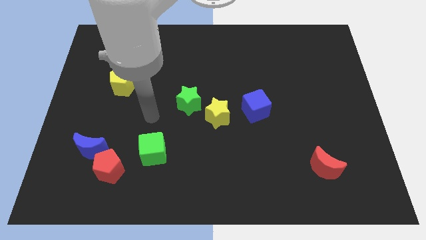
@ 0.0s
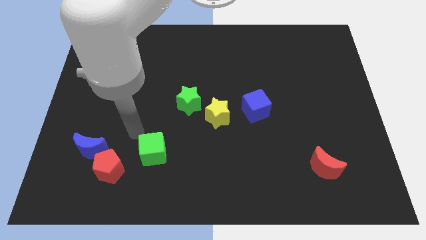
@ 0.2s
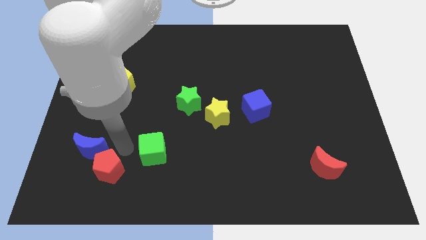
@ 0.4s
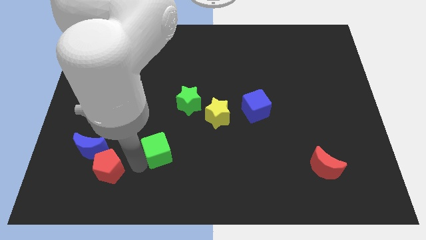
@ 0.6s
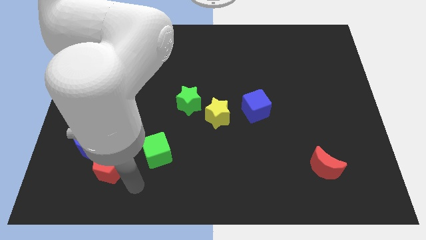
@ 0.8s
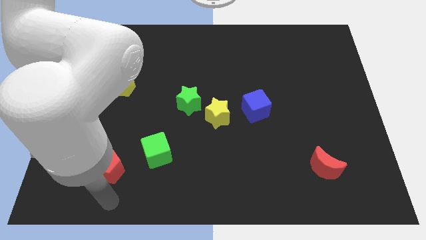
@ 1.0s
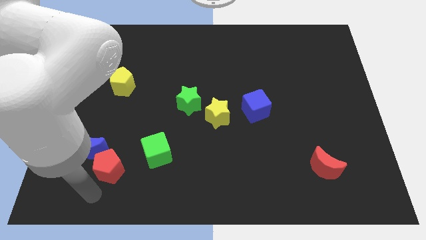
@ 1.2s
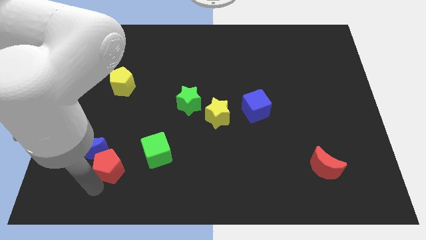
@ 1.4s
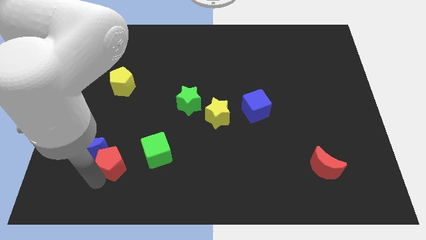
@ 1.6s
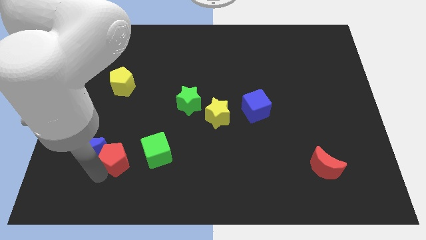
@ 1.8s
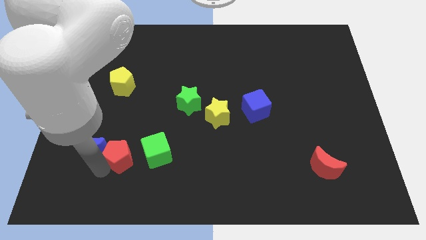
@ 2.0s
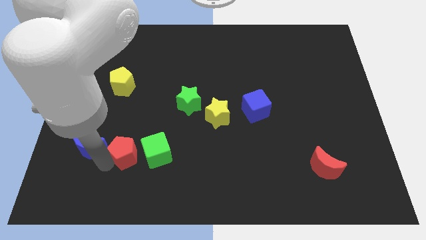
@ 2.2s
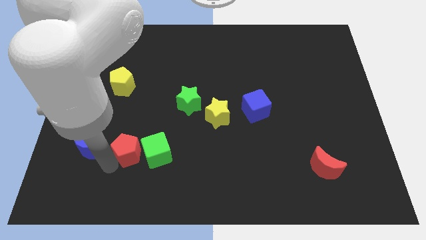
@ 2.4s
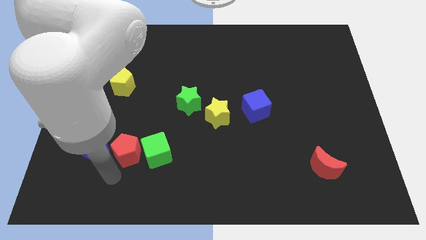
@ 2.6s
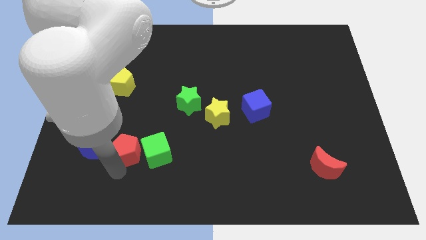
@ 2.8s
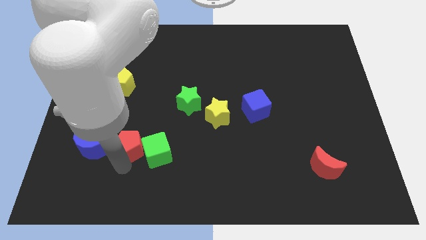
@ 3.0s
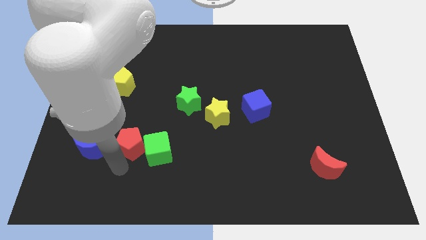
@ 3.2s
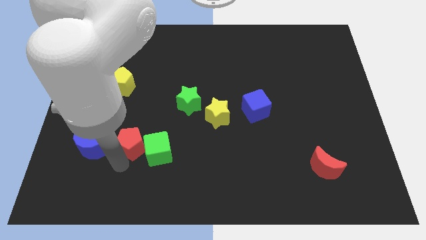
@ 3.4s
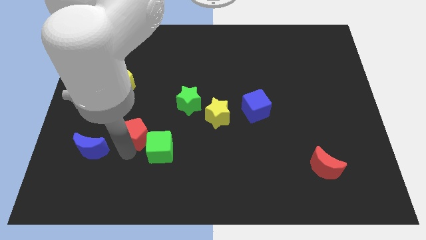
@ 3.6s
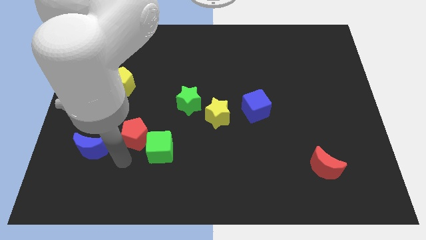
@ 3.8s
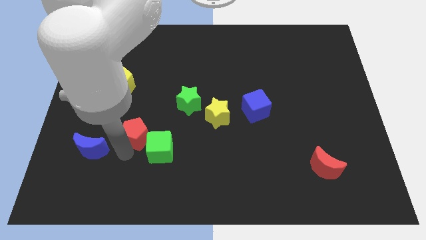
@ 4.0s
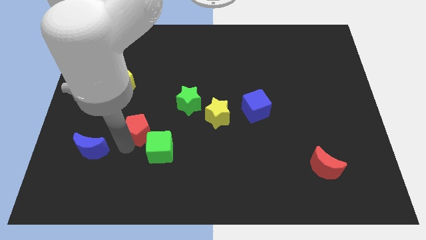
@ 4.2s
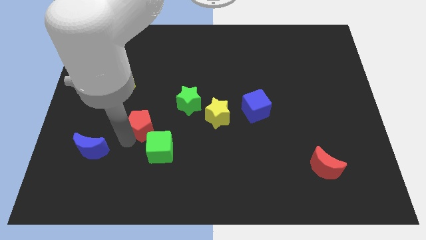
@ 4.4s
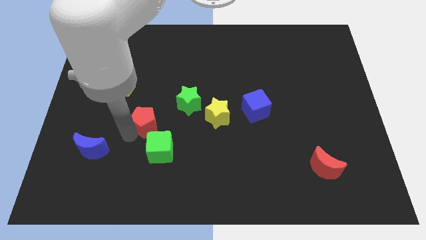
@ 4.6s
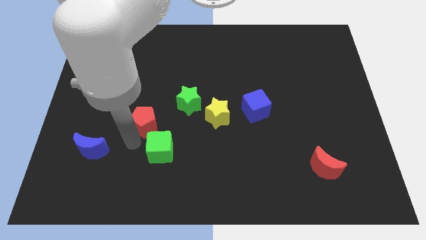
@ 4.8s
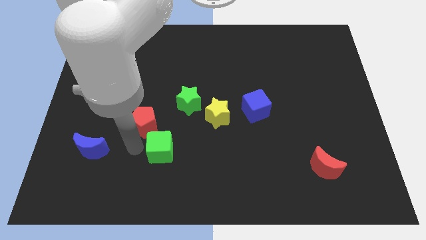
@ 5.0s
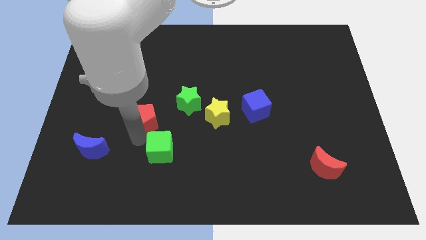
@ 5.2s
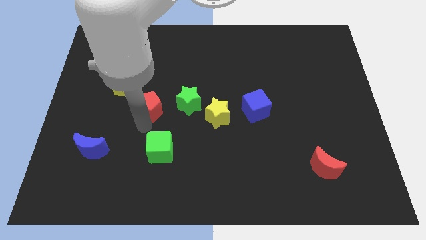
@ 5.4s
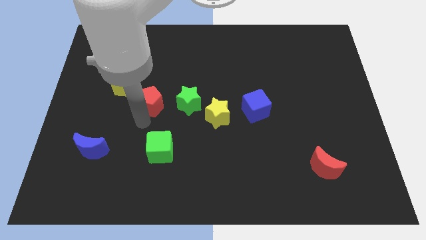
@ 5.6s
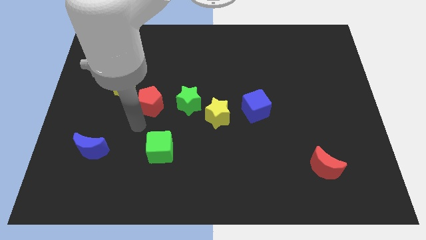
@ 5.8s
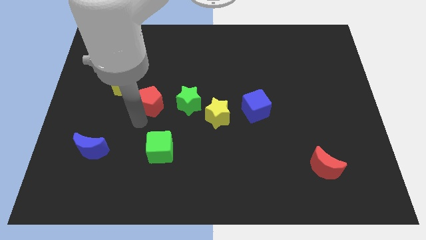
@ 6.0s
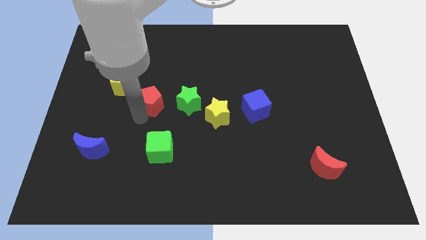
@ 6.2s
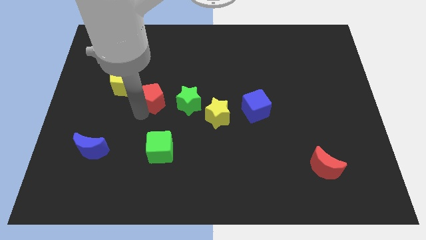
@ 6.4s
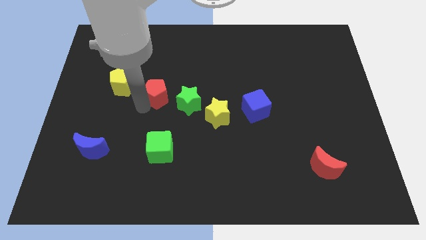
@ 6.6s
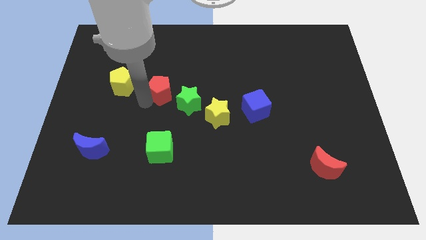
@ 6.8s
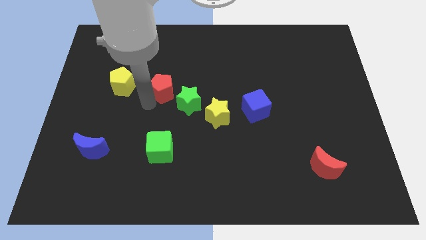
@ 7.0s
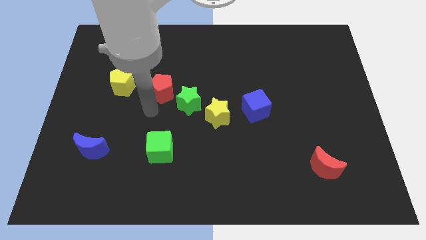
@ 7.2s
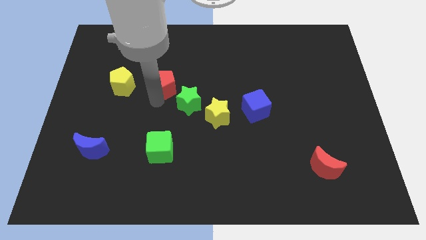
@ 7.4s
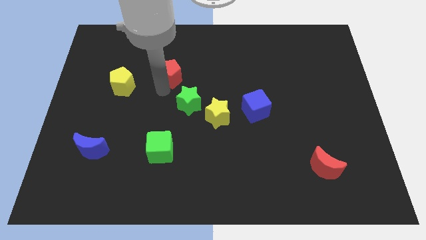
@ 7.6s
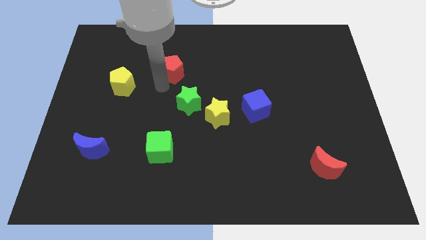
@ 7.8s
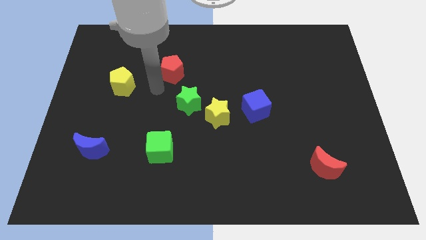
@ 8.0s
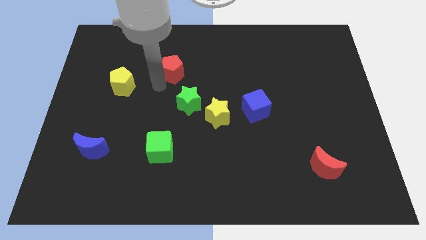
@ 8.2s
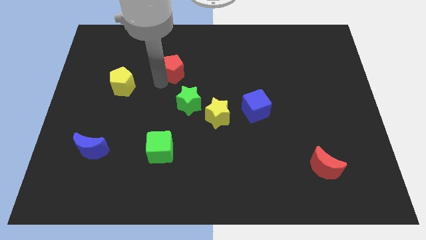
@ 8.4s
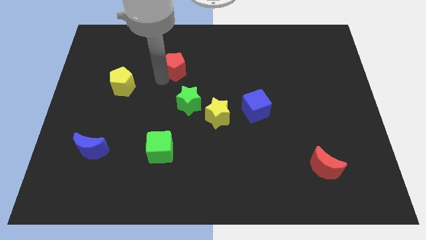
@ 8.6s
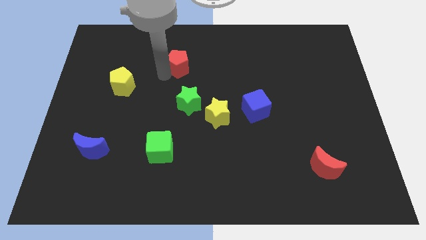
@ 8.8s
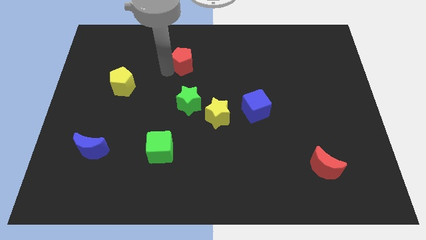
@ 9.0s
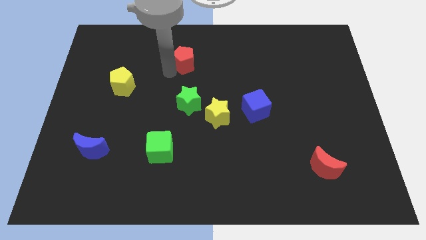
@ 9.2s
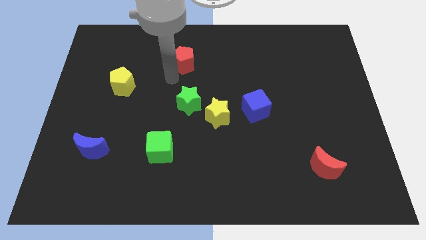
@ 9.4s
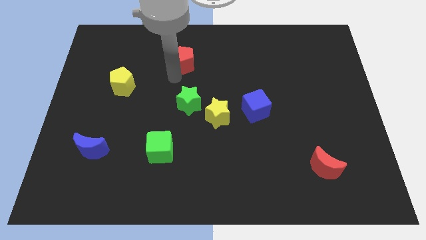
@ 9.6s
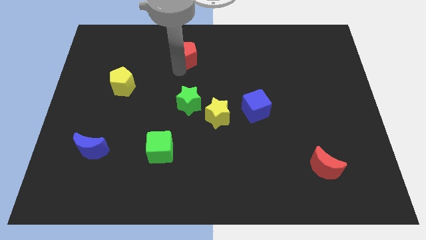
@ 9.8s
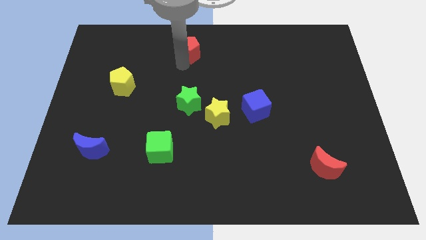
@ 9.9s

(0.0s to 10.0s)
push the red pentagon to the top side

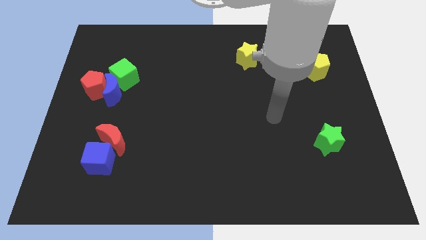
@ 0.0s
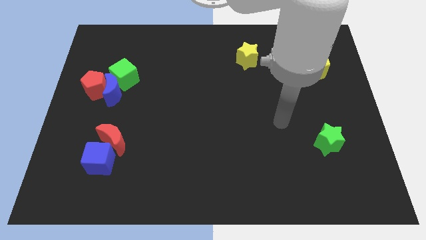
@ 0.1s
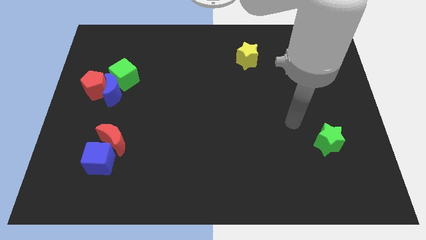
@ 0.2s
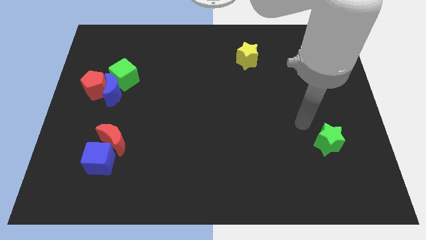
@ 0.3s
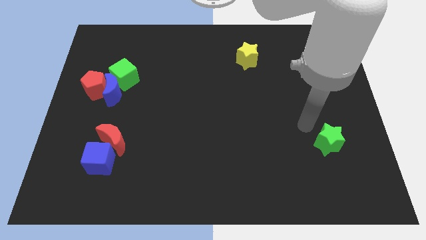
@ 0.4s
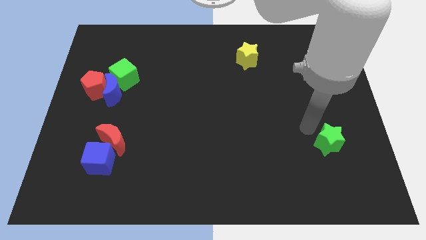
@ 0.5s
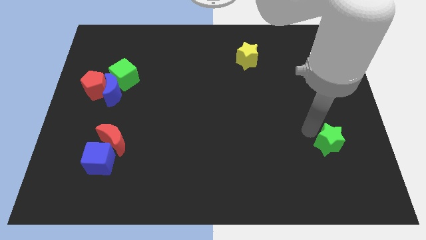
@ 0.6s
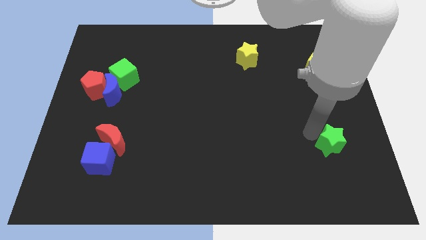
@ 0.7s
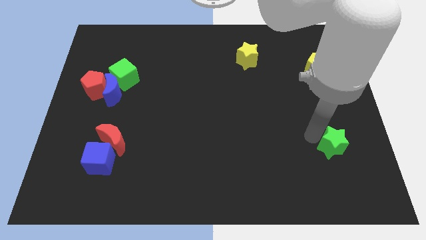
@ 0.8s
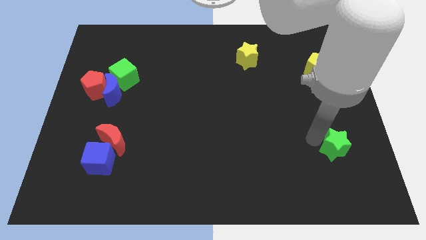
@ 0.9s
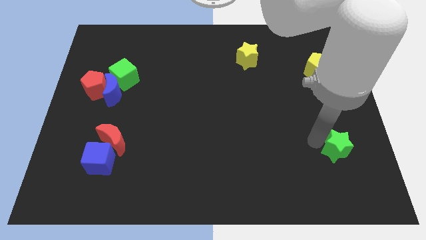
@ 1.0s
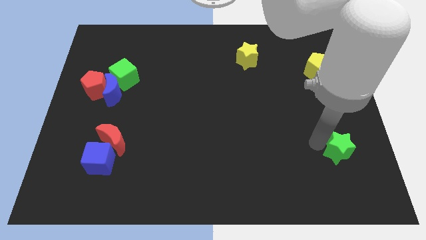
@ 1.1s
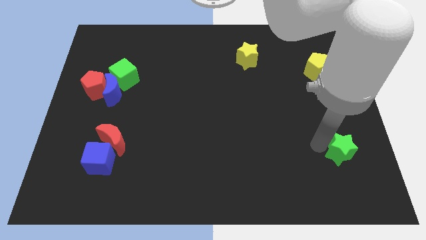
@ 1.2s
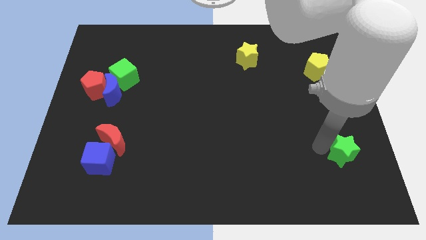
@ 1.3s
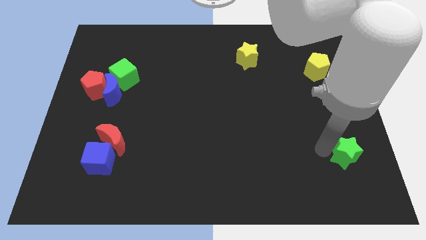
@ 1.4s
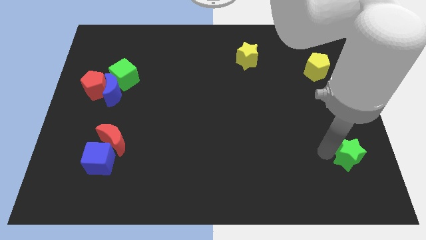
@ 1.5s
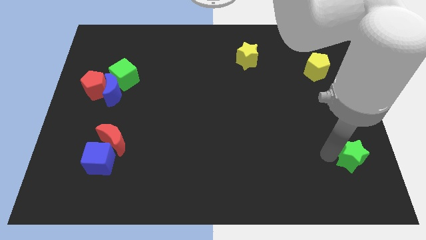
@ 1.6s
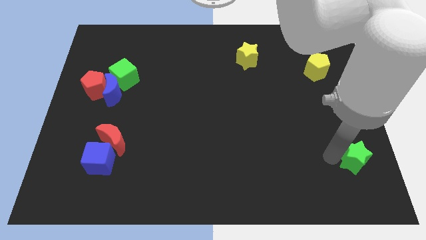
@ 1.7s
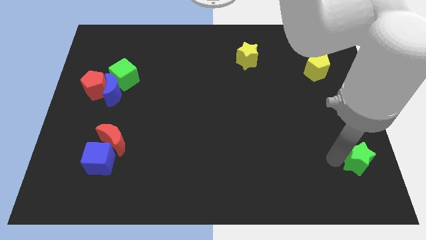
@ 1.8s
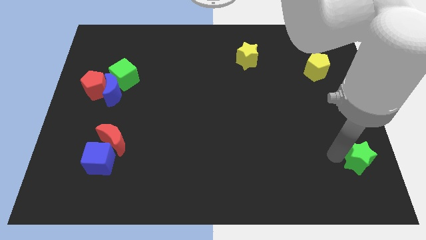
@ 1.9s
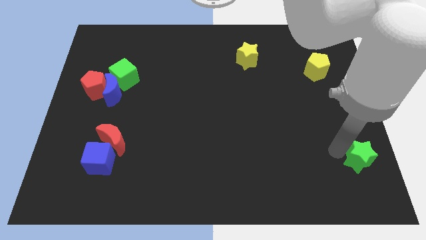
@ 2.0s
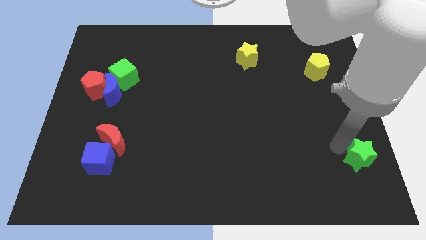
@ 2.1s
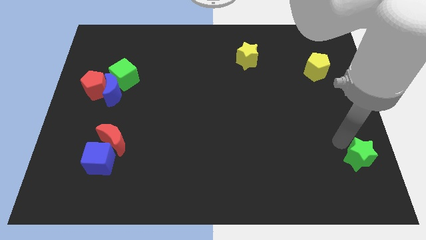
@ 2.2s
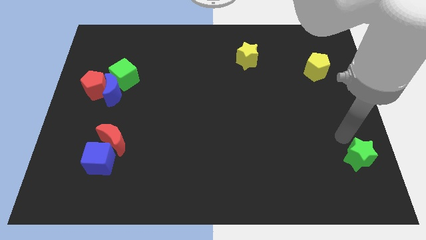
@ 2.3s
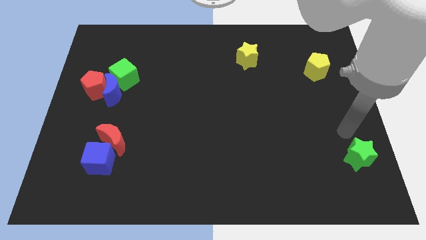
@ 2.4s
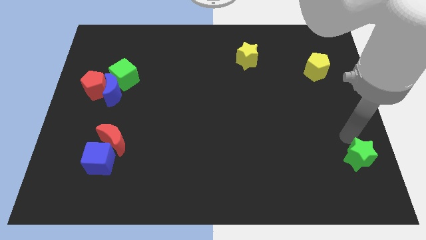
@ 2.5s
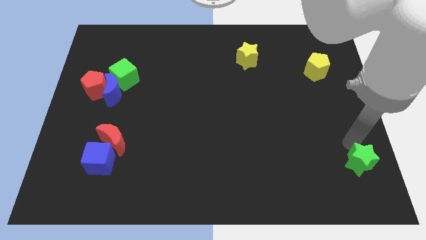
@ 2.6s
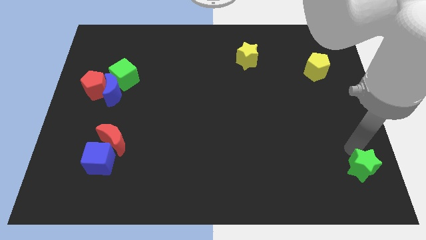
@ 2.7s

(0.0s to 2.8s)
push the green star to the bottom right corner

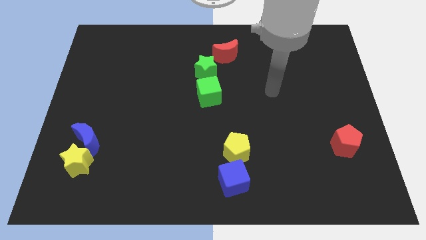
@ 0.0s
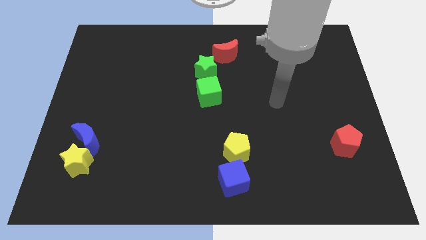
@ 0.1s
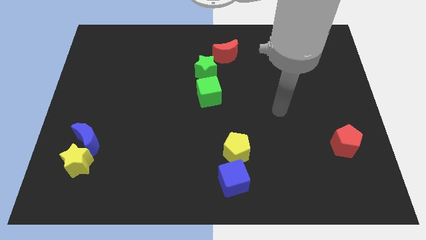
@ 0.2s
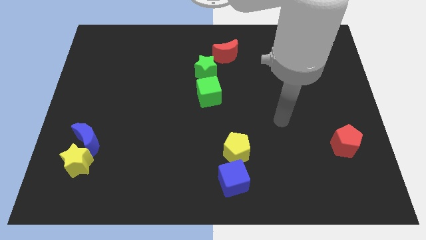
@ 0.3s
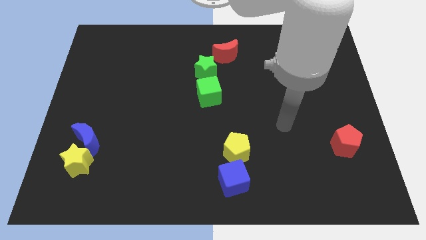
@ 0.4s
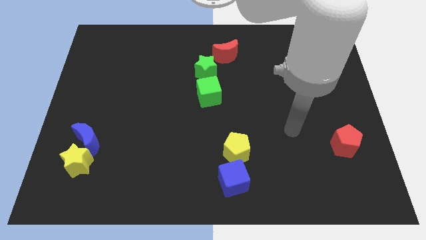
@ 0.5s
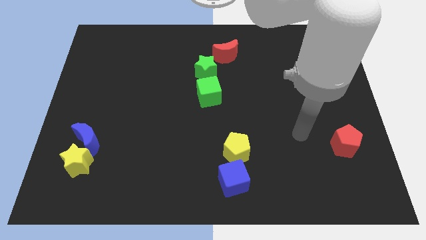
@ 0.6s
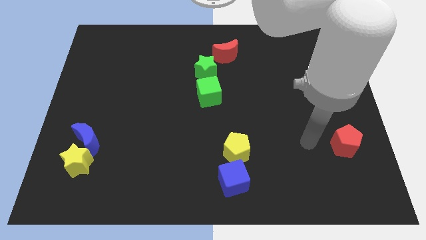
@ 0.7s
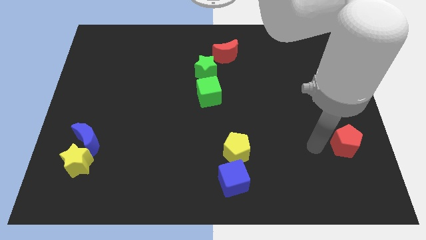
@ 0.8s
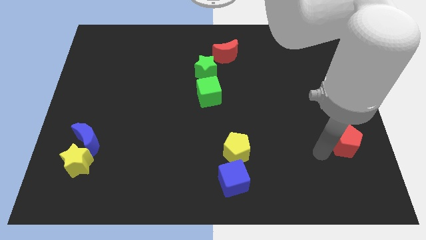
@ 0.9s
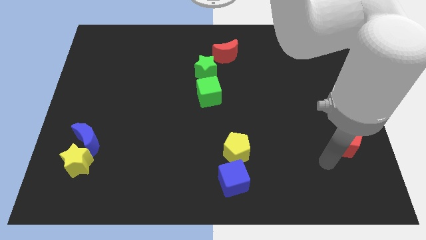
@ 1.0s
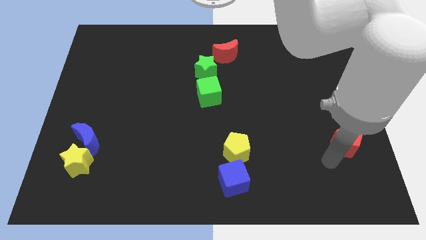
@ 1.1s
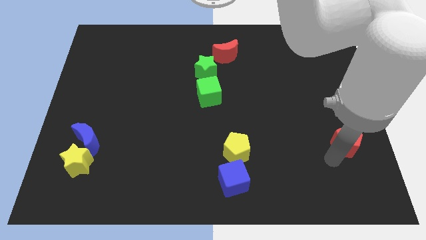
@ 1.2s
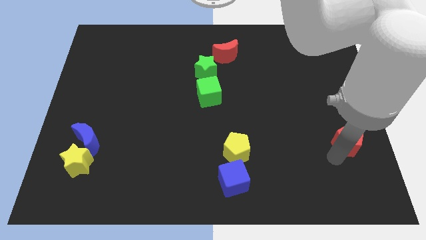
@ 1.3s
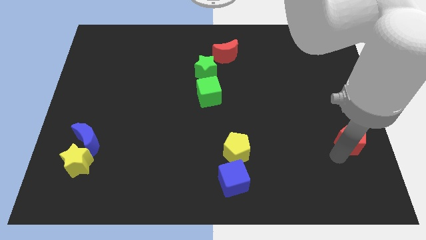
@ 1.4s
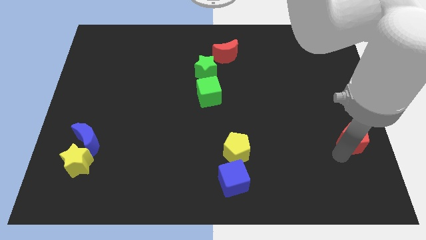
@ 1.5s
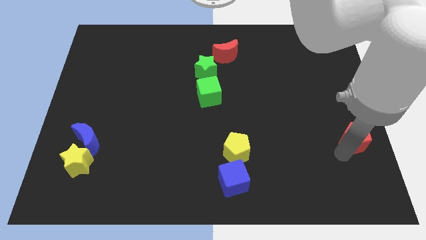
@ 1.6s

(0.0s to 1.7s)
slide the red pentagon to the right side
